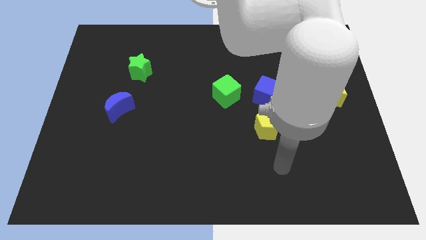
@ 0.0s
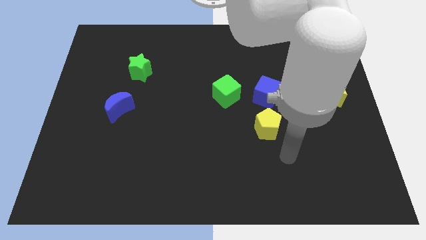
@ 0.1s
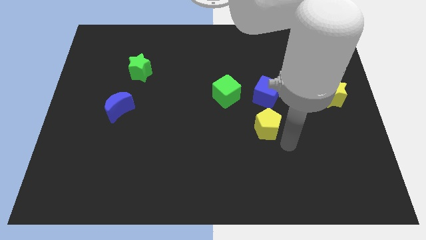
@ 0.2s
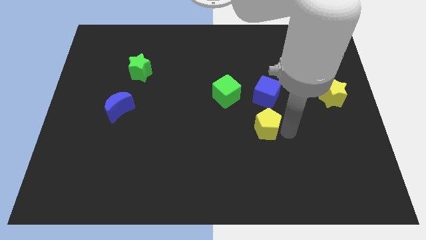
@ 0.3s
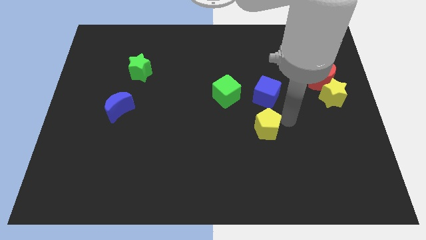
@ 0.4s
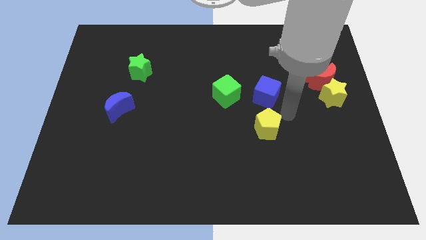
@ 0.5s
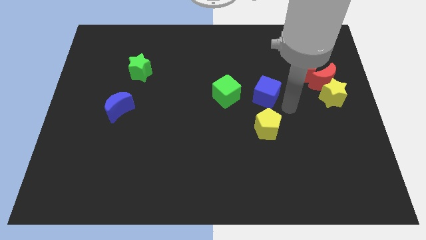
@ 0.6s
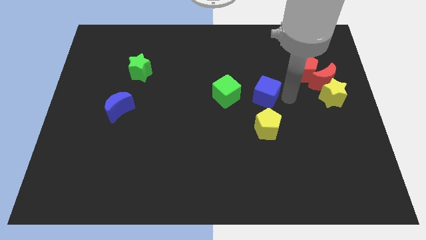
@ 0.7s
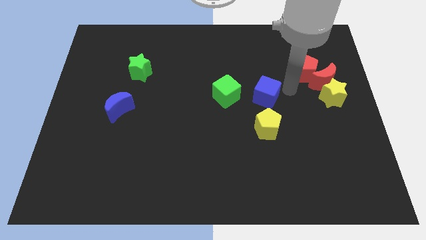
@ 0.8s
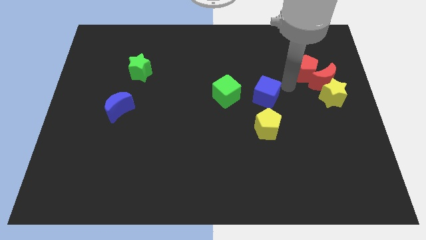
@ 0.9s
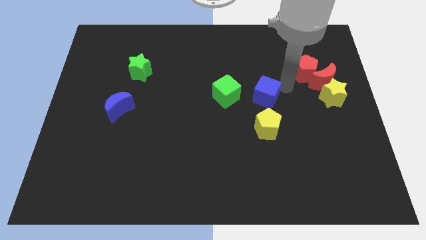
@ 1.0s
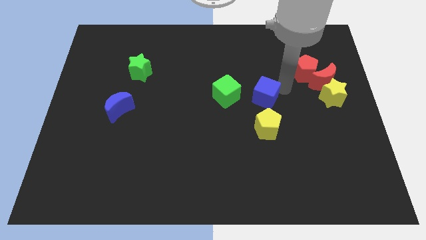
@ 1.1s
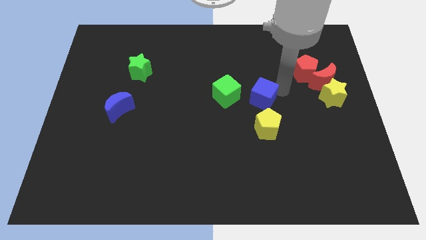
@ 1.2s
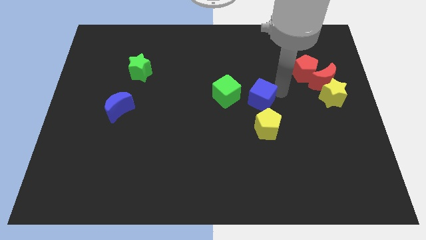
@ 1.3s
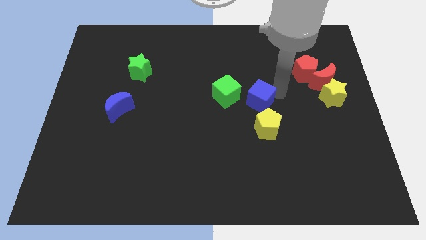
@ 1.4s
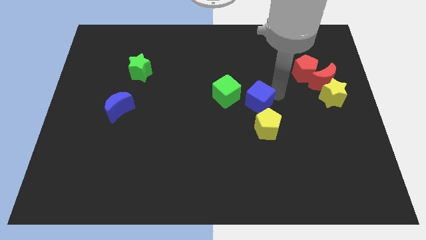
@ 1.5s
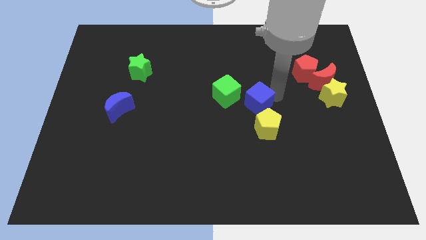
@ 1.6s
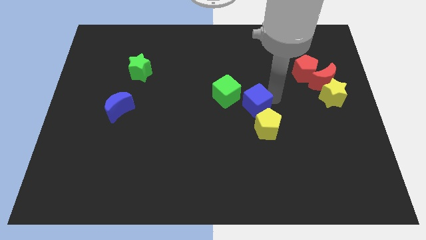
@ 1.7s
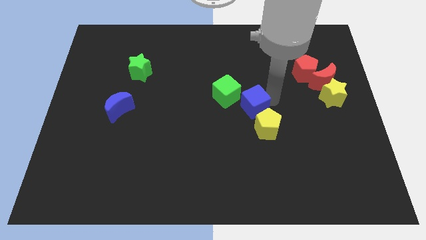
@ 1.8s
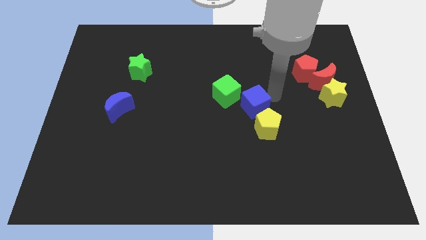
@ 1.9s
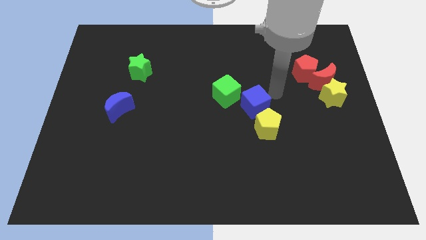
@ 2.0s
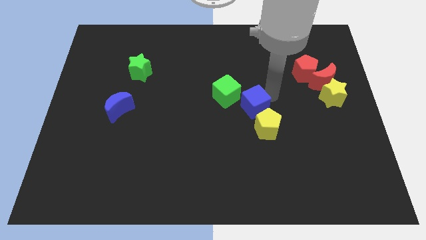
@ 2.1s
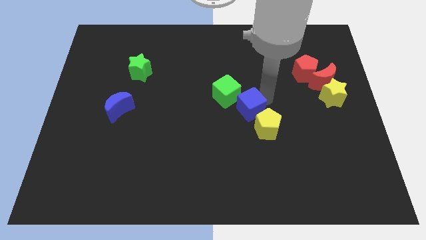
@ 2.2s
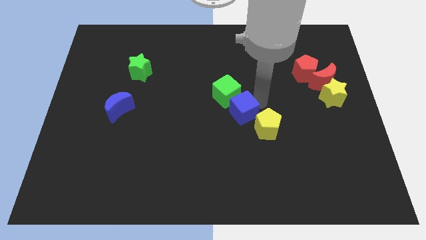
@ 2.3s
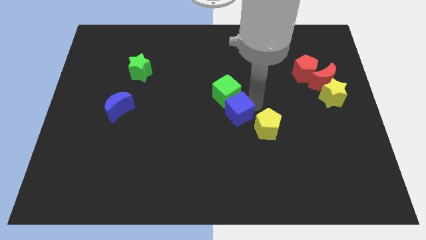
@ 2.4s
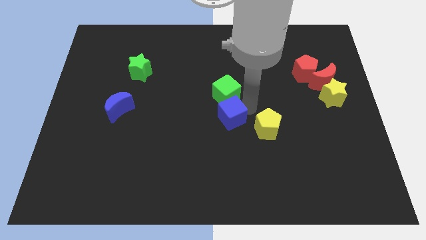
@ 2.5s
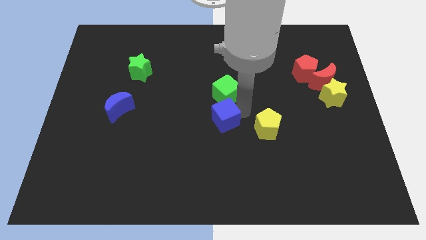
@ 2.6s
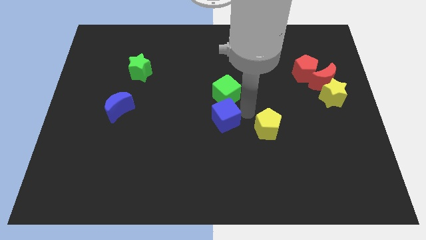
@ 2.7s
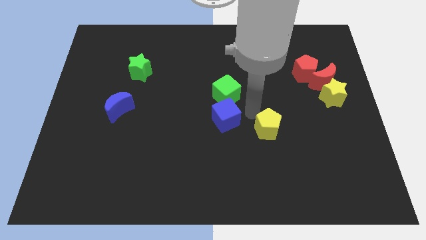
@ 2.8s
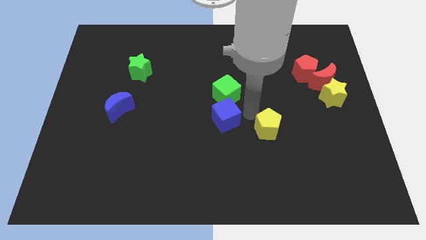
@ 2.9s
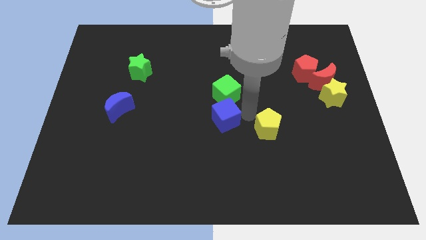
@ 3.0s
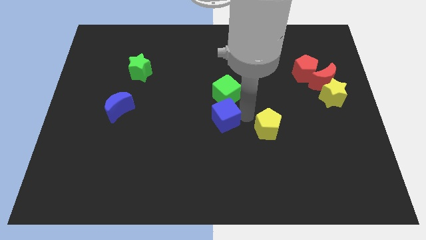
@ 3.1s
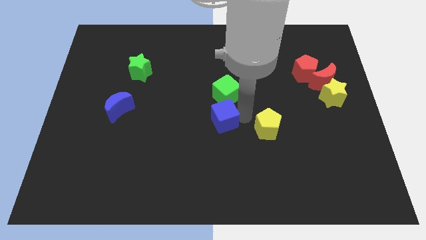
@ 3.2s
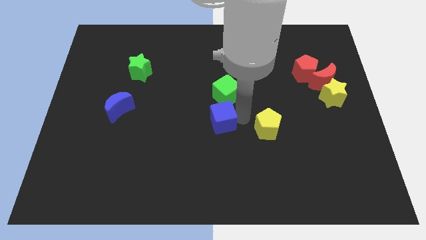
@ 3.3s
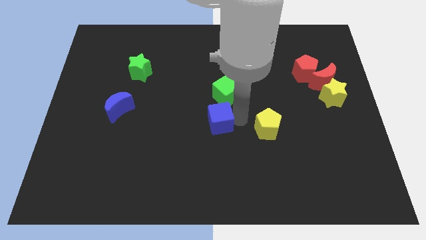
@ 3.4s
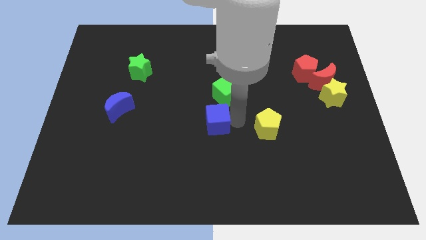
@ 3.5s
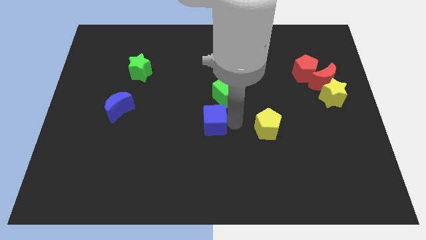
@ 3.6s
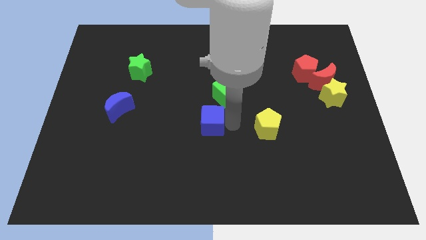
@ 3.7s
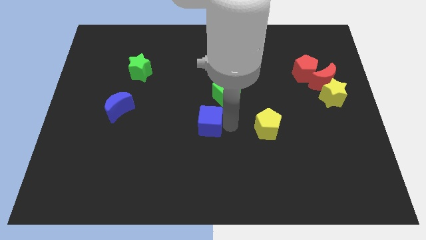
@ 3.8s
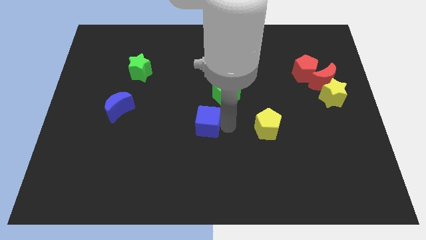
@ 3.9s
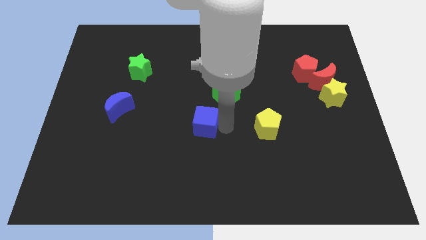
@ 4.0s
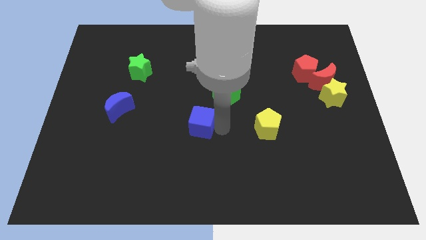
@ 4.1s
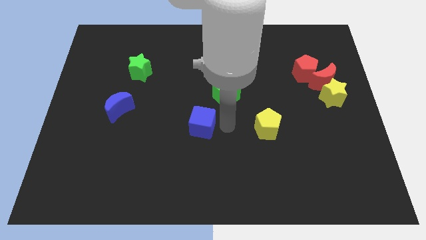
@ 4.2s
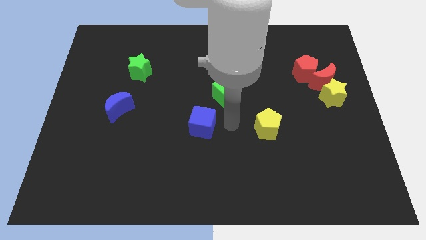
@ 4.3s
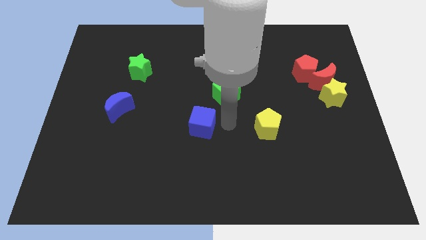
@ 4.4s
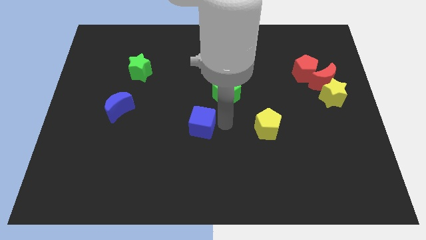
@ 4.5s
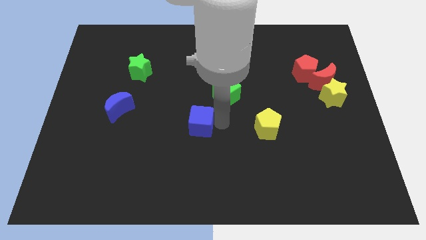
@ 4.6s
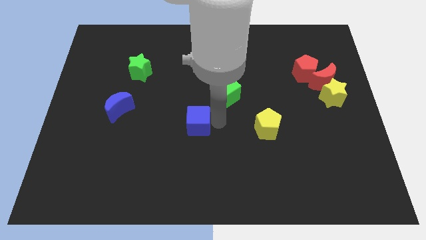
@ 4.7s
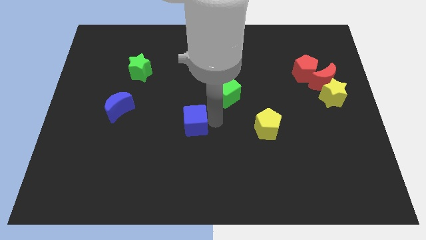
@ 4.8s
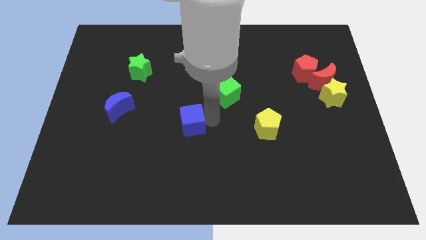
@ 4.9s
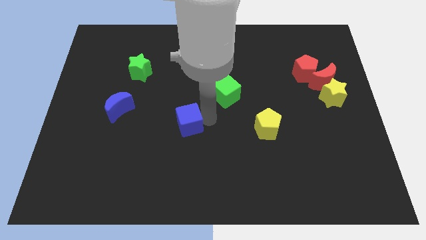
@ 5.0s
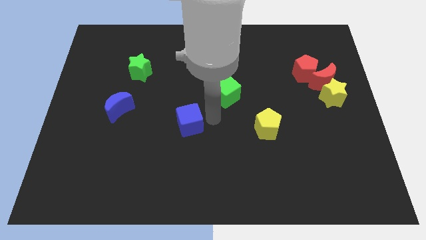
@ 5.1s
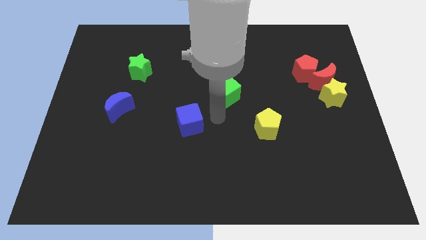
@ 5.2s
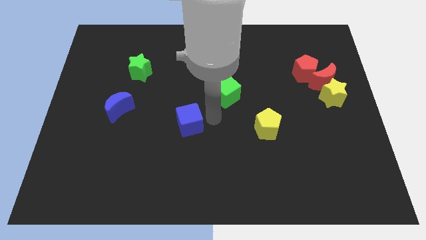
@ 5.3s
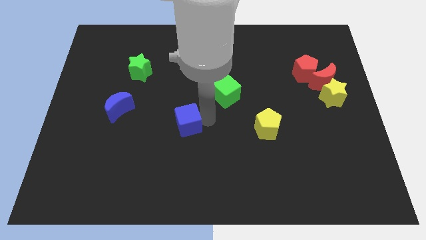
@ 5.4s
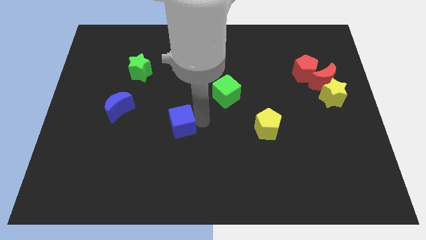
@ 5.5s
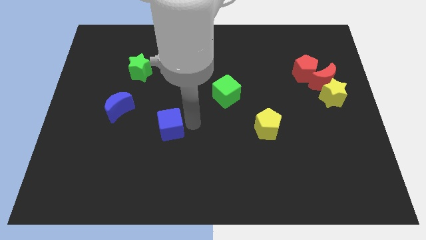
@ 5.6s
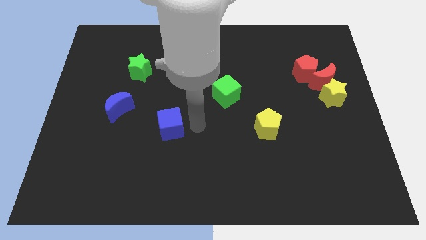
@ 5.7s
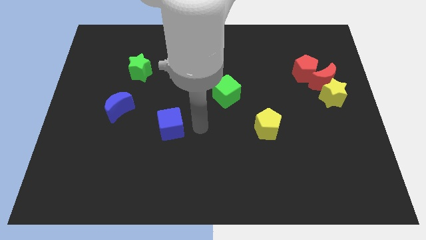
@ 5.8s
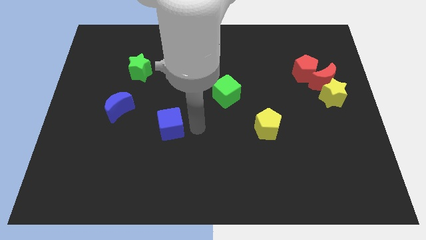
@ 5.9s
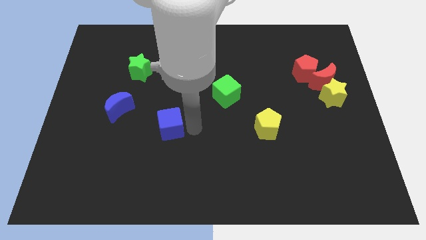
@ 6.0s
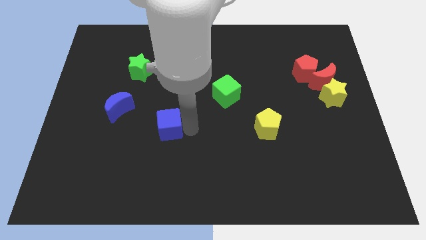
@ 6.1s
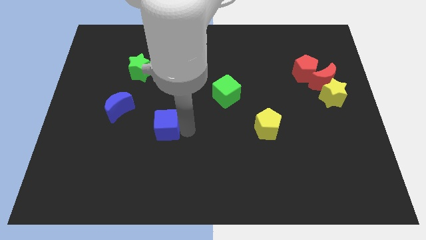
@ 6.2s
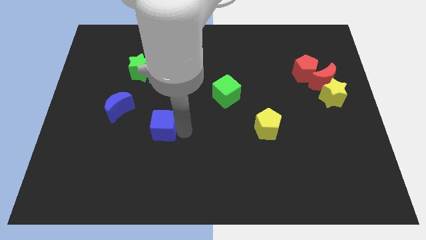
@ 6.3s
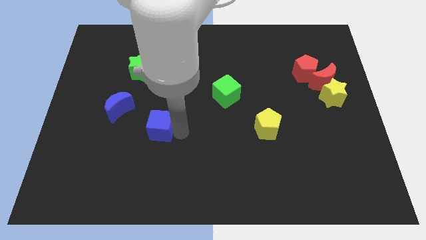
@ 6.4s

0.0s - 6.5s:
push the blue cube to the bottom right side of the blue moon
